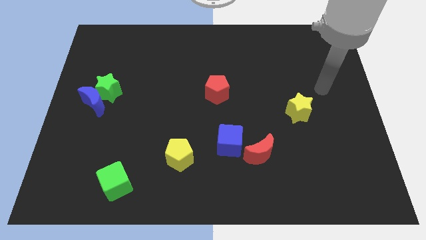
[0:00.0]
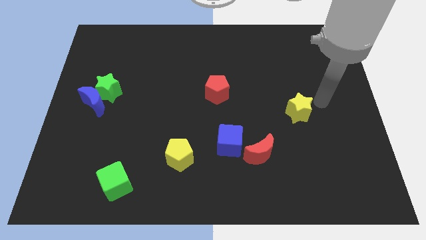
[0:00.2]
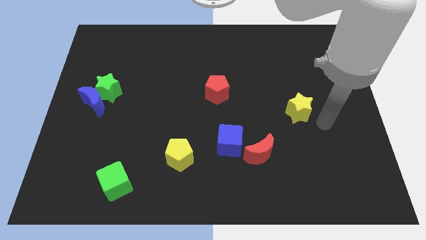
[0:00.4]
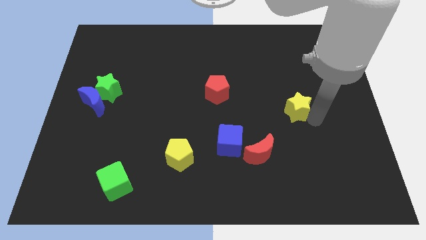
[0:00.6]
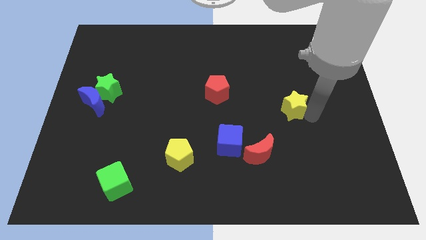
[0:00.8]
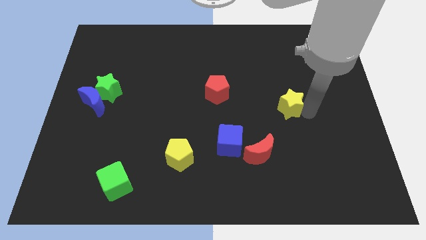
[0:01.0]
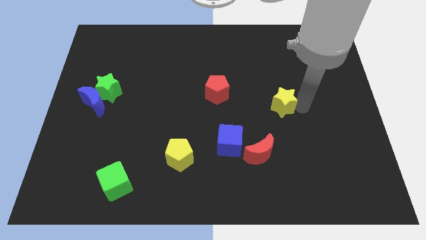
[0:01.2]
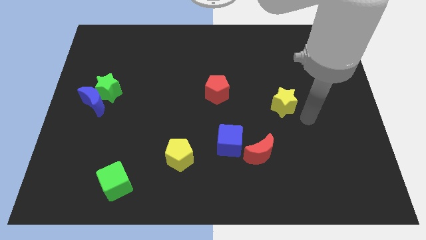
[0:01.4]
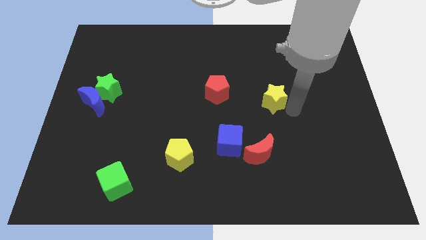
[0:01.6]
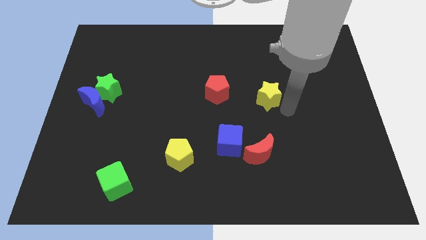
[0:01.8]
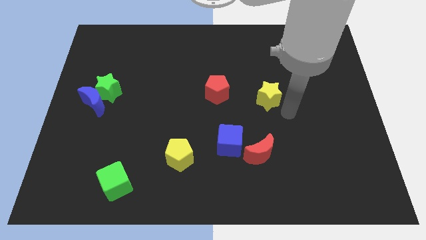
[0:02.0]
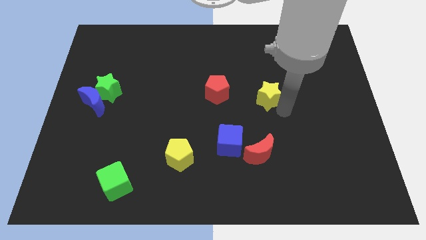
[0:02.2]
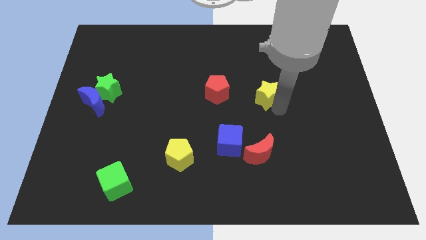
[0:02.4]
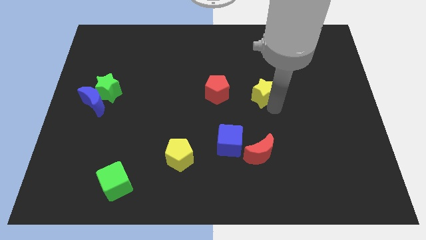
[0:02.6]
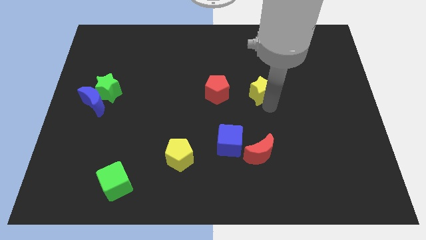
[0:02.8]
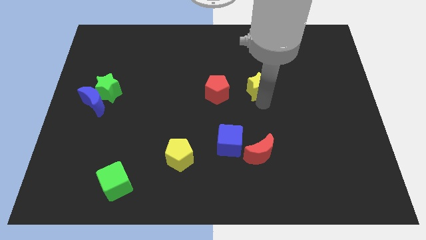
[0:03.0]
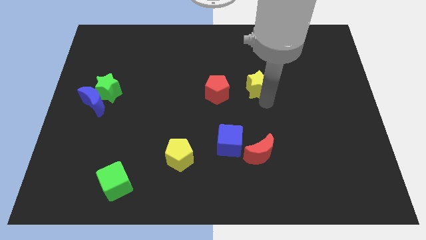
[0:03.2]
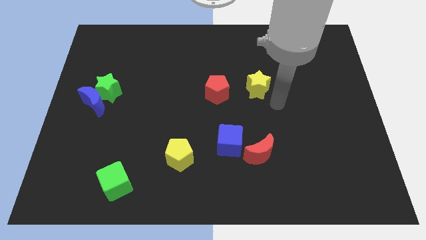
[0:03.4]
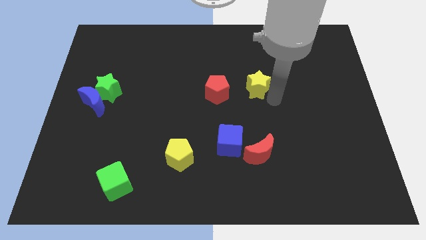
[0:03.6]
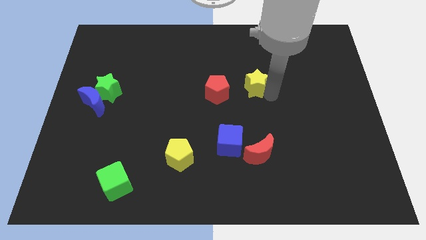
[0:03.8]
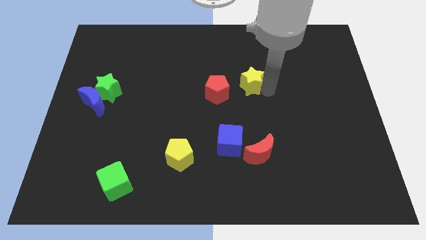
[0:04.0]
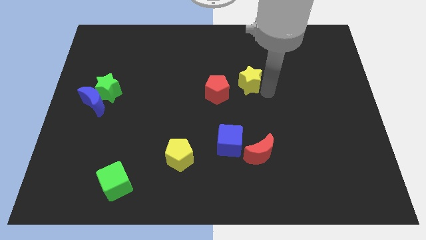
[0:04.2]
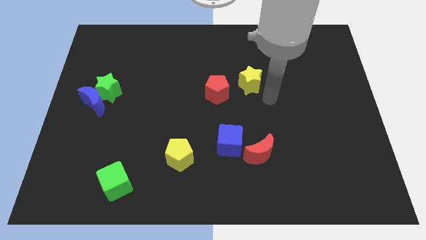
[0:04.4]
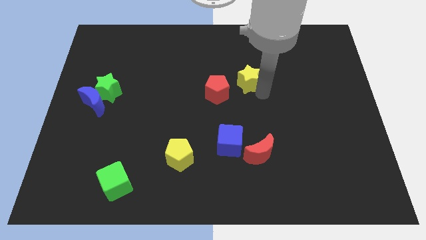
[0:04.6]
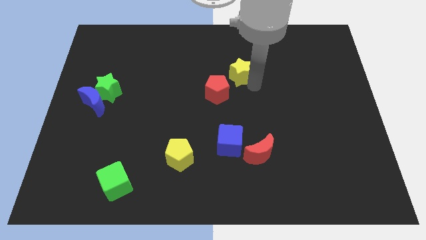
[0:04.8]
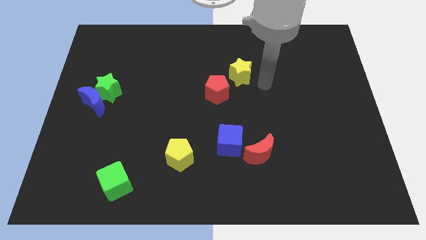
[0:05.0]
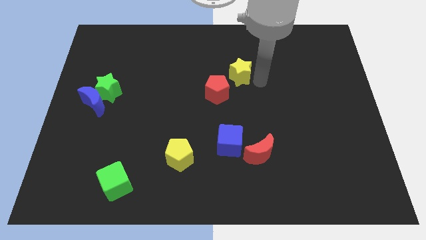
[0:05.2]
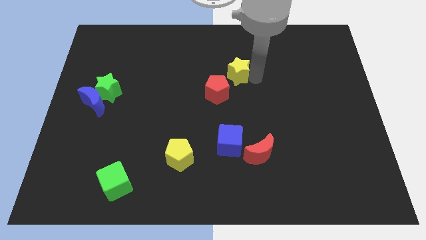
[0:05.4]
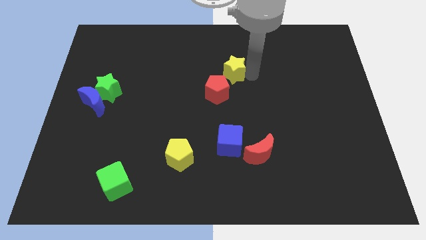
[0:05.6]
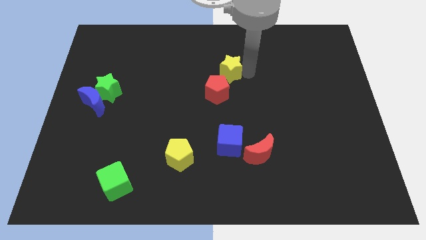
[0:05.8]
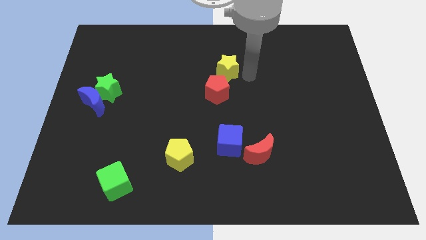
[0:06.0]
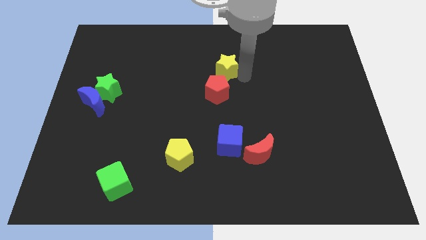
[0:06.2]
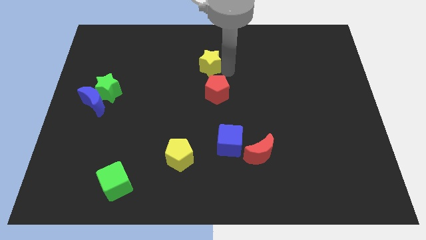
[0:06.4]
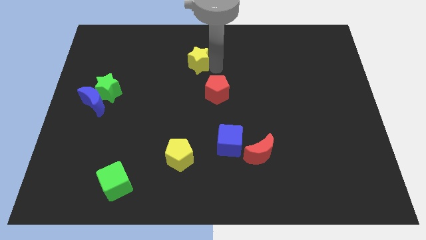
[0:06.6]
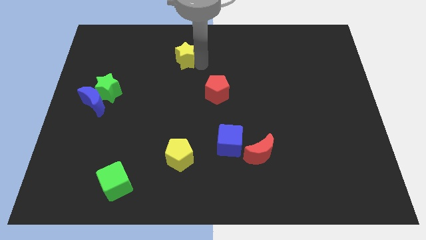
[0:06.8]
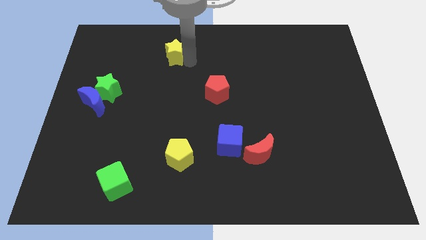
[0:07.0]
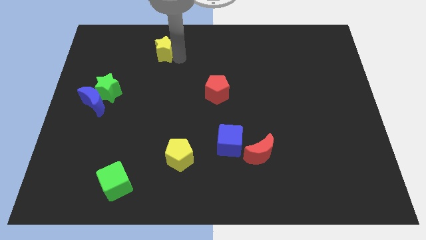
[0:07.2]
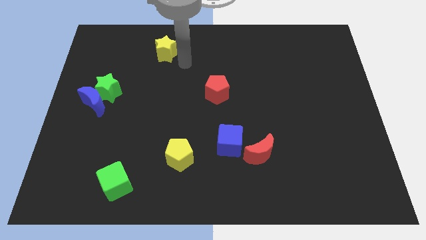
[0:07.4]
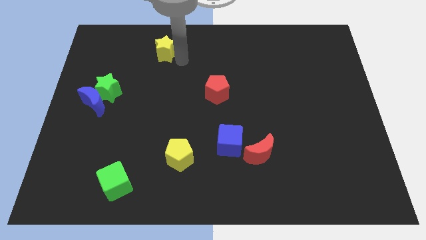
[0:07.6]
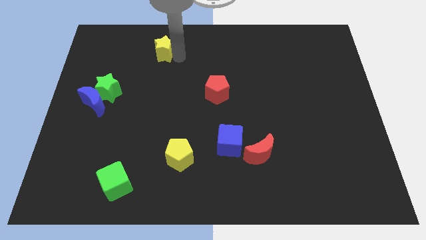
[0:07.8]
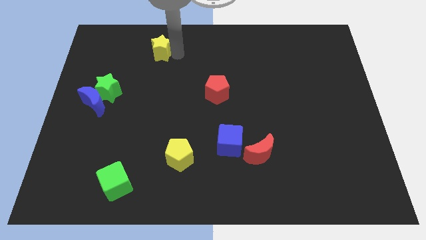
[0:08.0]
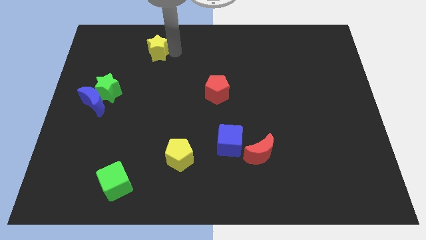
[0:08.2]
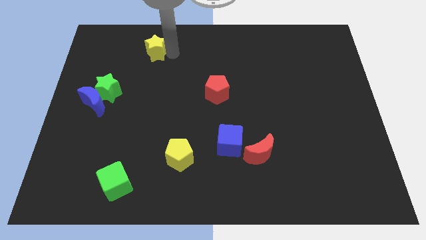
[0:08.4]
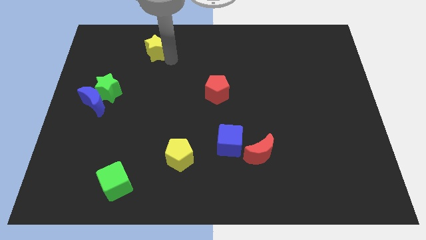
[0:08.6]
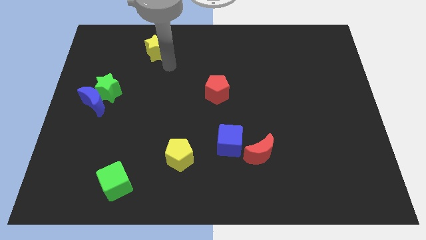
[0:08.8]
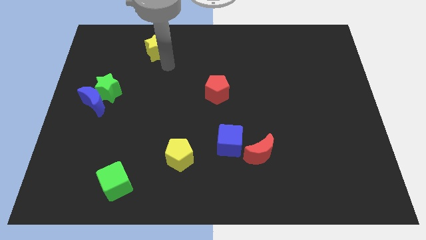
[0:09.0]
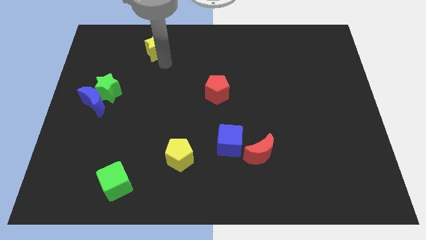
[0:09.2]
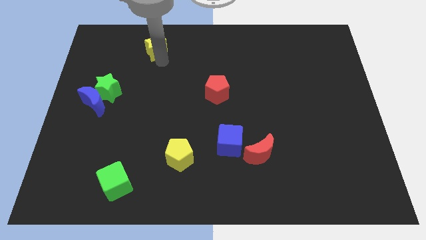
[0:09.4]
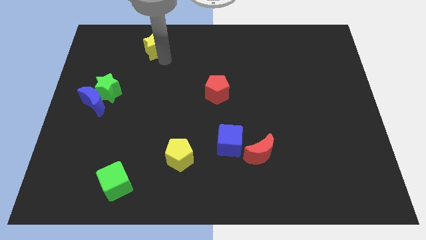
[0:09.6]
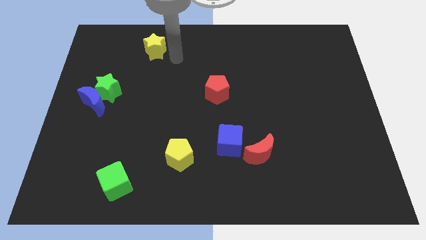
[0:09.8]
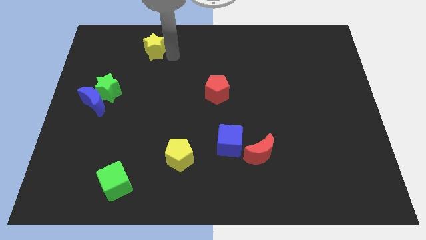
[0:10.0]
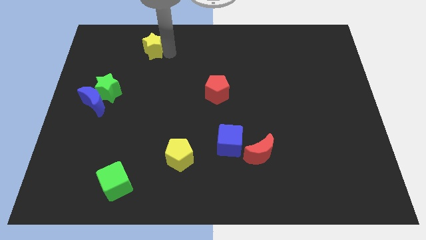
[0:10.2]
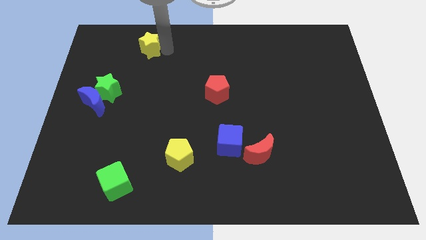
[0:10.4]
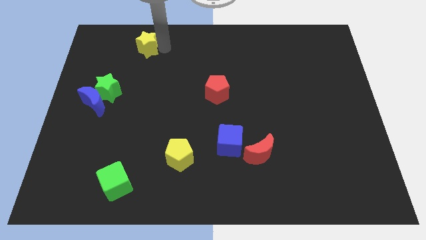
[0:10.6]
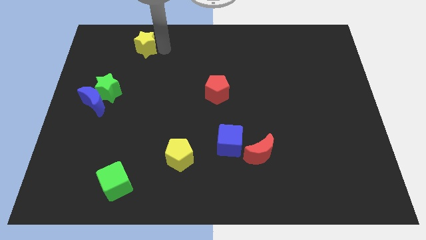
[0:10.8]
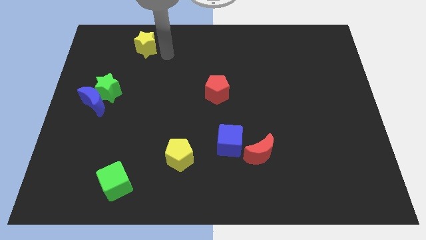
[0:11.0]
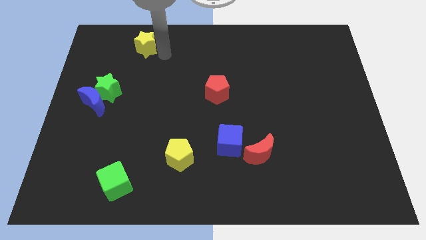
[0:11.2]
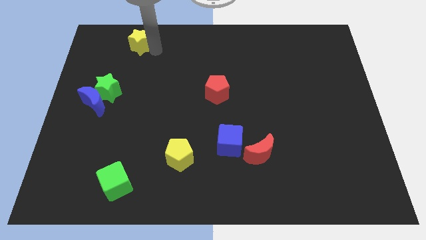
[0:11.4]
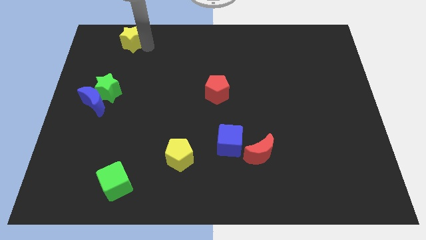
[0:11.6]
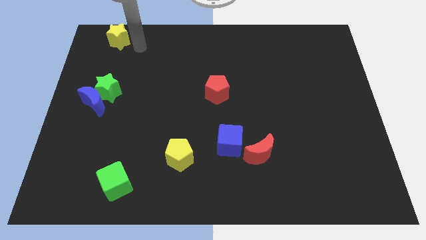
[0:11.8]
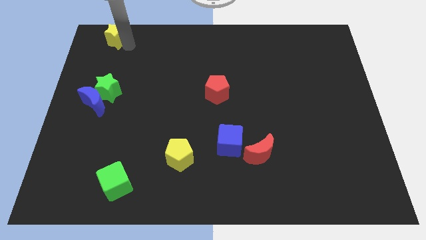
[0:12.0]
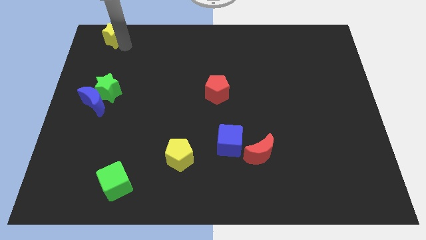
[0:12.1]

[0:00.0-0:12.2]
put the yellow star to the upper left corner
